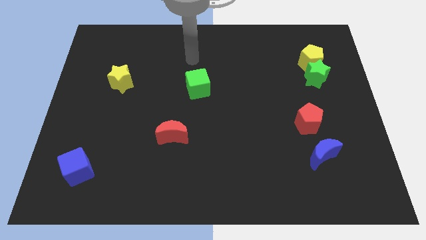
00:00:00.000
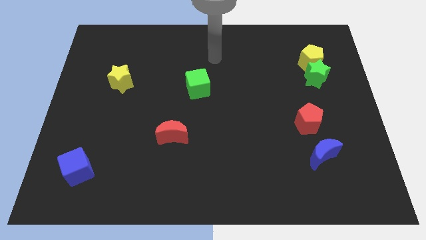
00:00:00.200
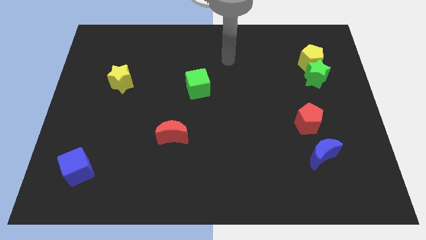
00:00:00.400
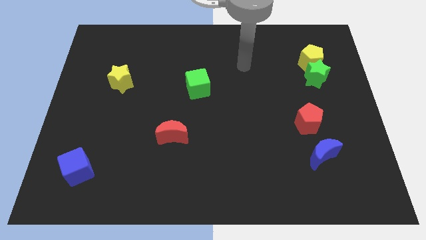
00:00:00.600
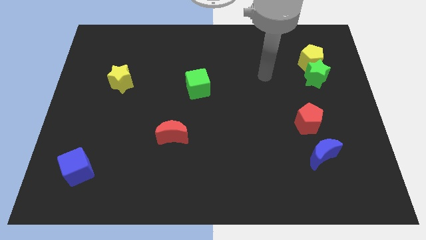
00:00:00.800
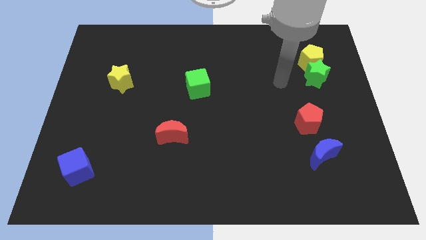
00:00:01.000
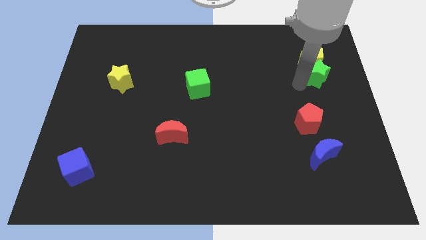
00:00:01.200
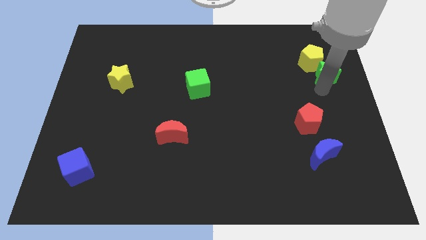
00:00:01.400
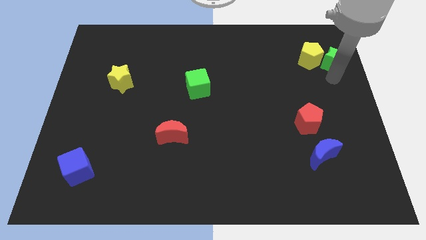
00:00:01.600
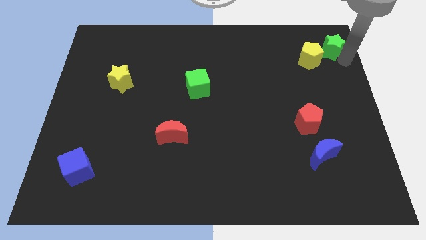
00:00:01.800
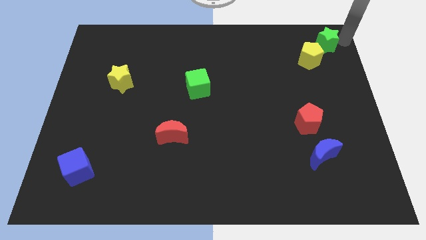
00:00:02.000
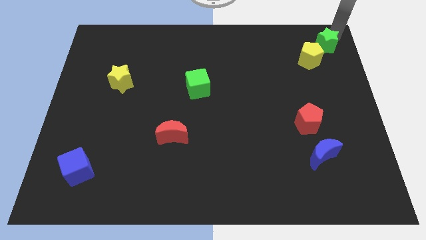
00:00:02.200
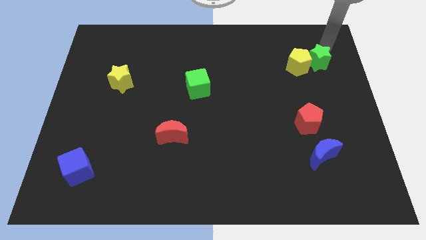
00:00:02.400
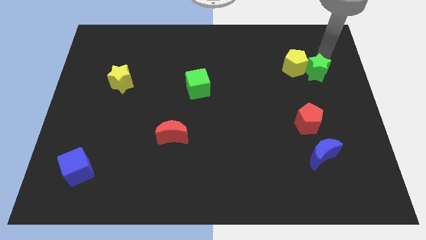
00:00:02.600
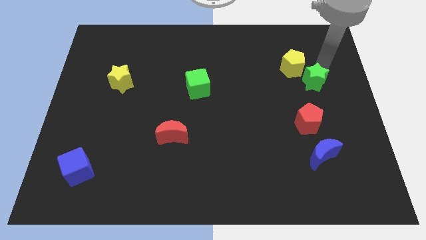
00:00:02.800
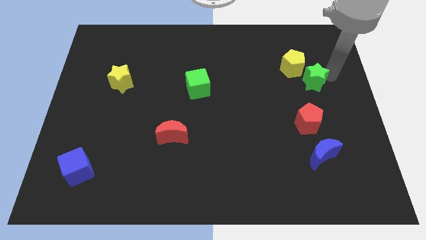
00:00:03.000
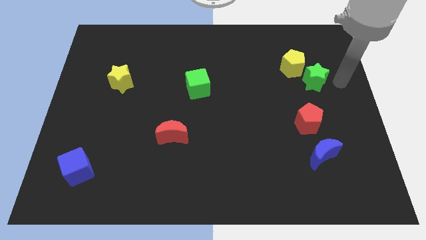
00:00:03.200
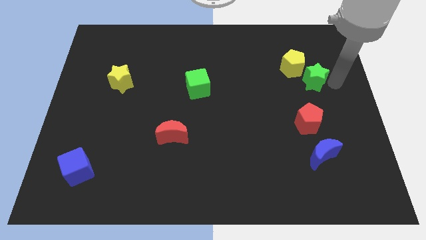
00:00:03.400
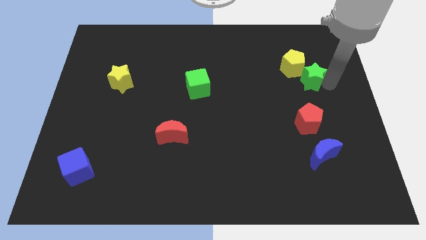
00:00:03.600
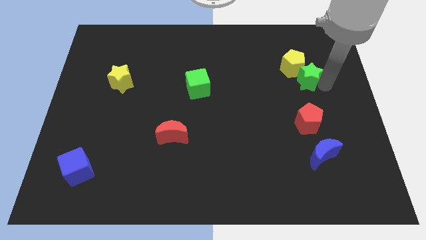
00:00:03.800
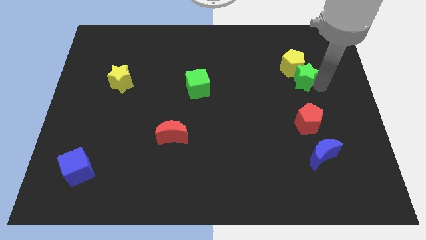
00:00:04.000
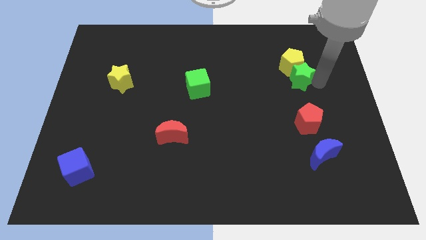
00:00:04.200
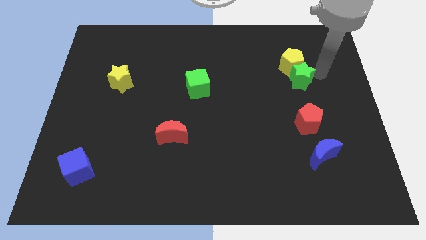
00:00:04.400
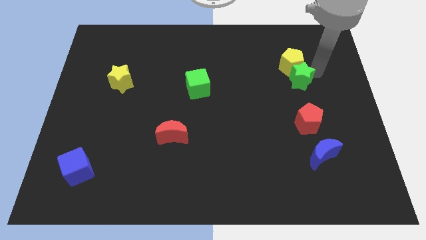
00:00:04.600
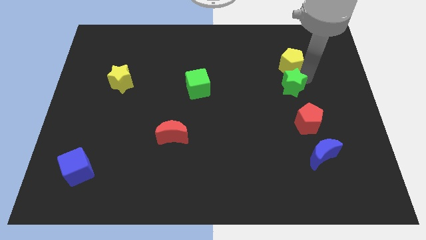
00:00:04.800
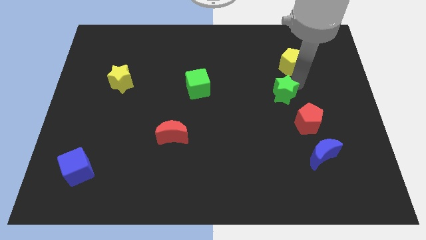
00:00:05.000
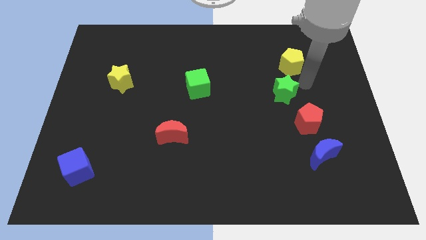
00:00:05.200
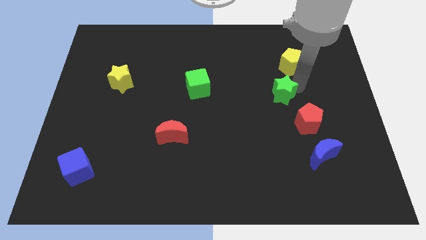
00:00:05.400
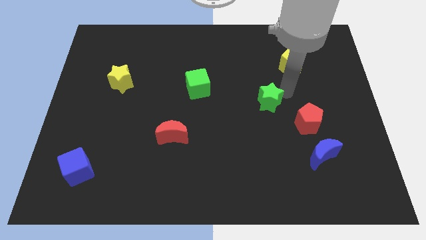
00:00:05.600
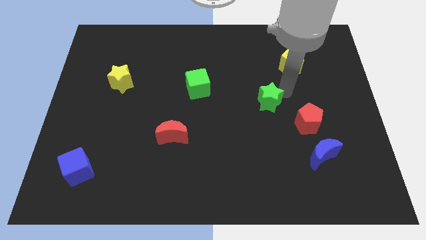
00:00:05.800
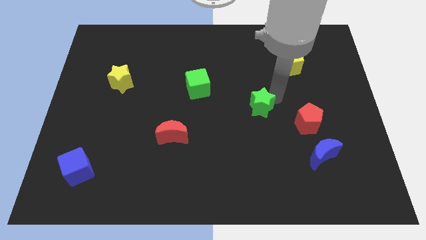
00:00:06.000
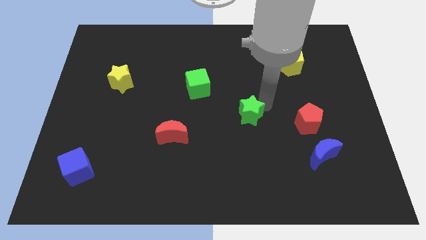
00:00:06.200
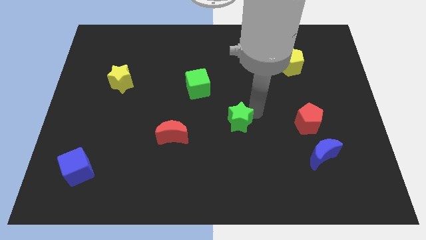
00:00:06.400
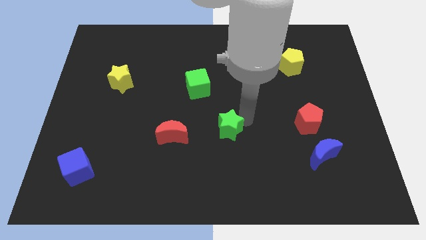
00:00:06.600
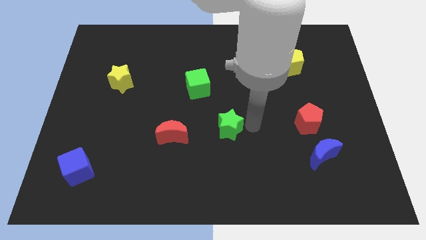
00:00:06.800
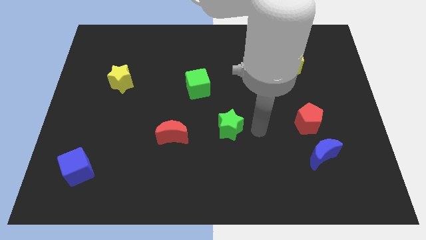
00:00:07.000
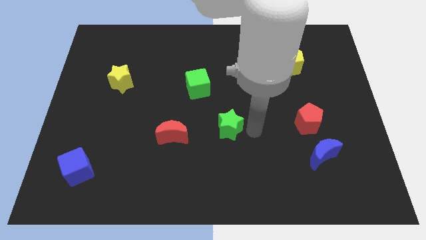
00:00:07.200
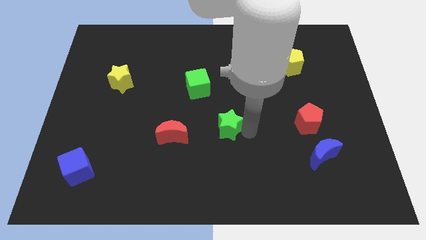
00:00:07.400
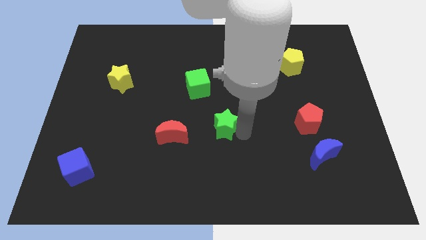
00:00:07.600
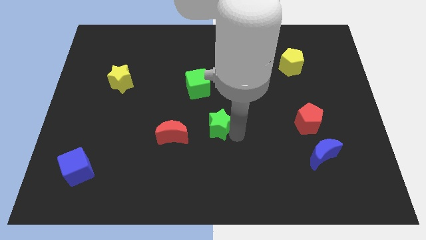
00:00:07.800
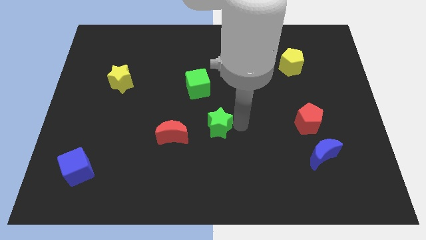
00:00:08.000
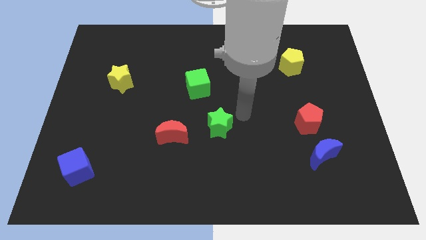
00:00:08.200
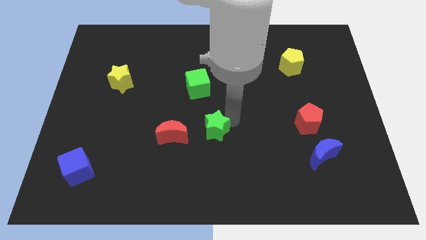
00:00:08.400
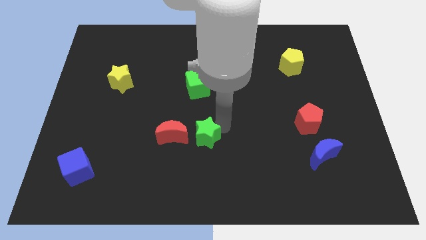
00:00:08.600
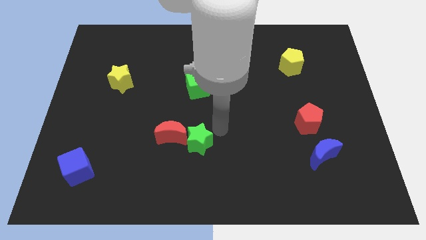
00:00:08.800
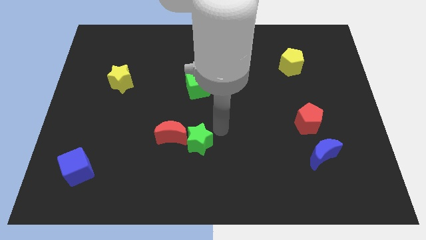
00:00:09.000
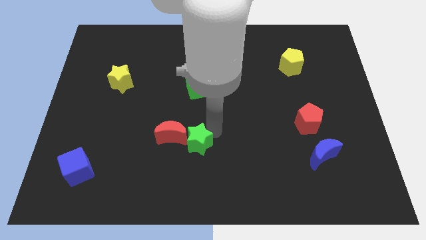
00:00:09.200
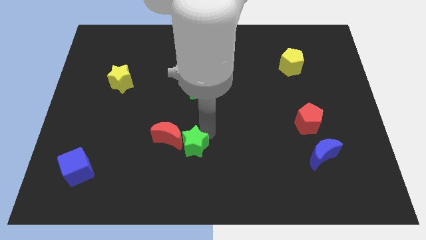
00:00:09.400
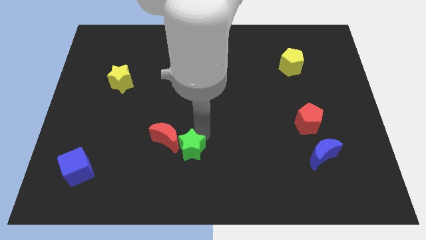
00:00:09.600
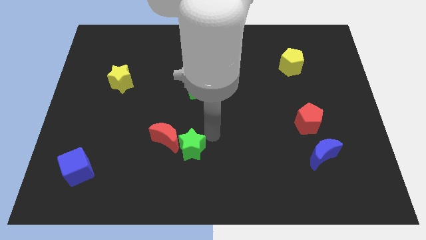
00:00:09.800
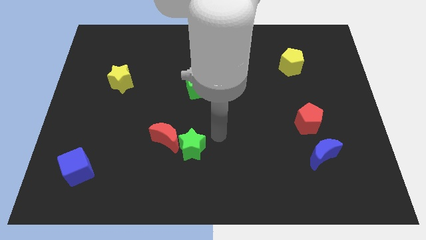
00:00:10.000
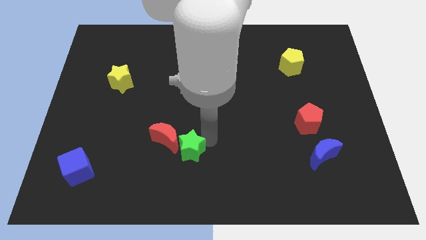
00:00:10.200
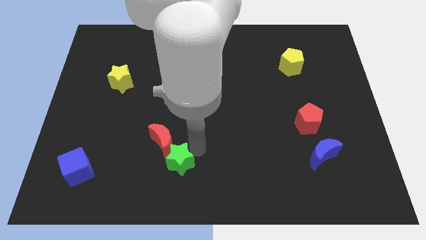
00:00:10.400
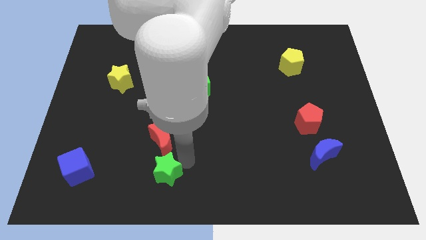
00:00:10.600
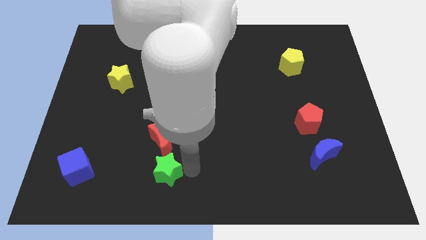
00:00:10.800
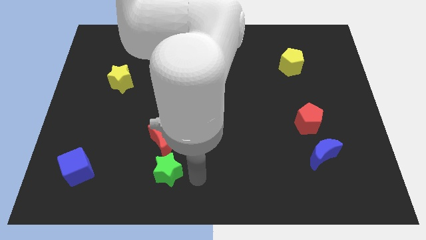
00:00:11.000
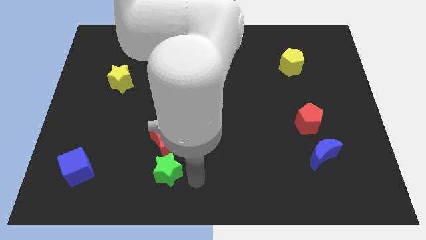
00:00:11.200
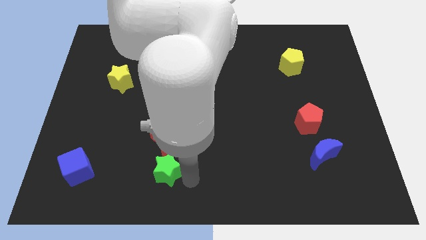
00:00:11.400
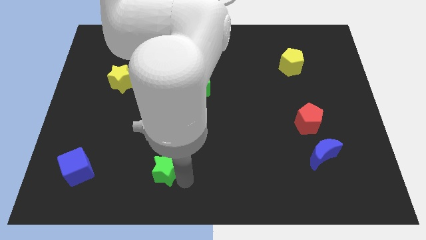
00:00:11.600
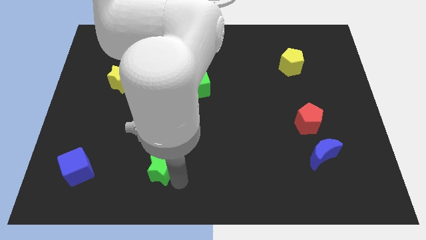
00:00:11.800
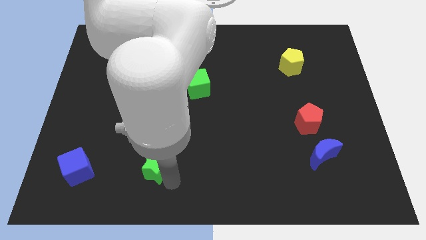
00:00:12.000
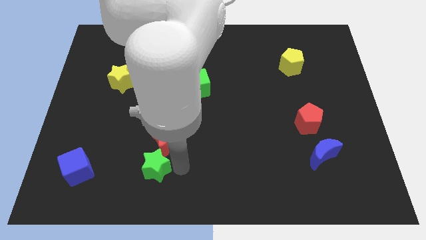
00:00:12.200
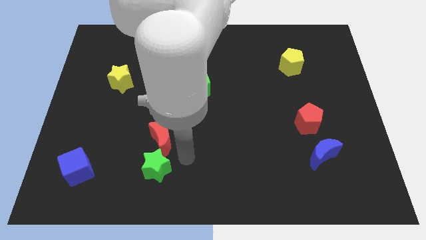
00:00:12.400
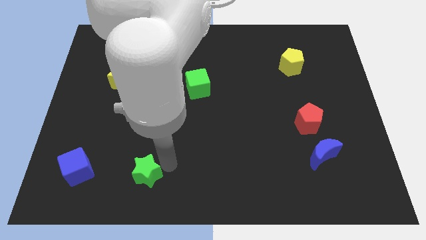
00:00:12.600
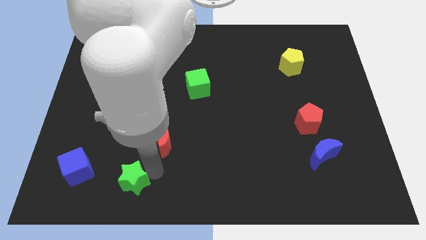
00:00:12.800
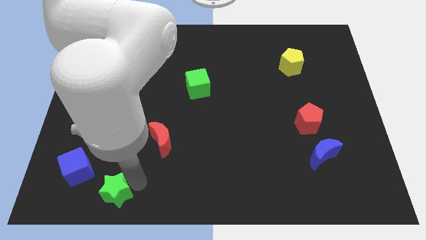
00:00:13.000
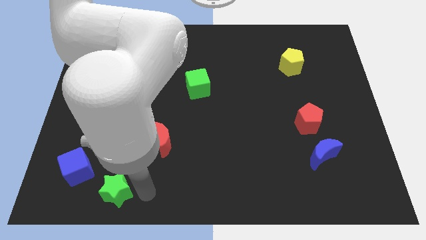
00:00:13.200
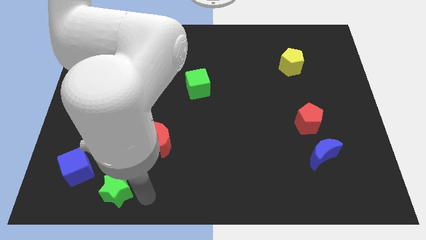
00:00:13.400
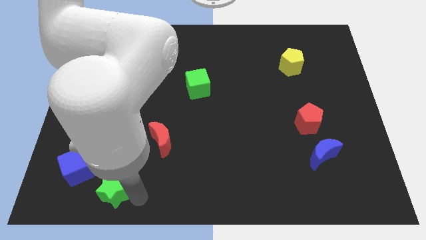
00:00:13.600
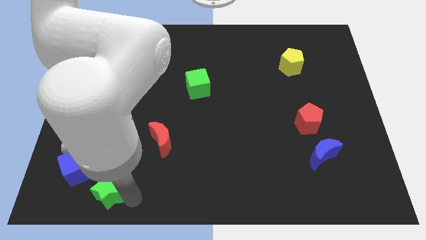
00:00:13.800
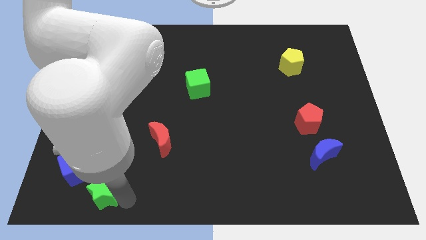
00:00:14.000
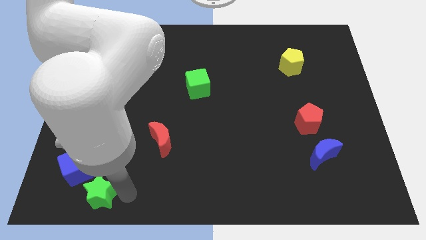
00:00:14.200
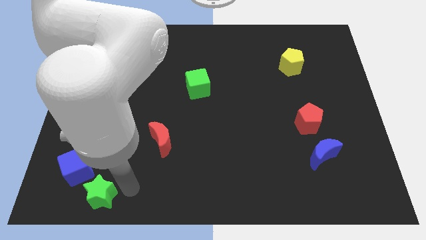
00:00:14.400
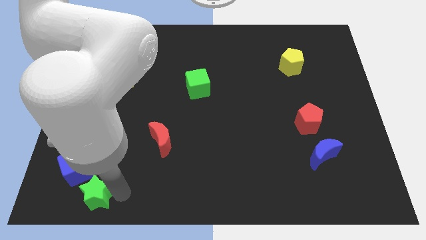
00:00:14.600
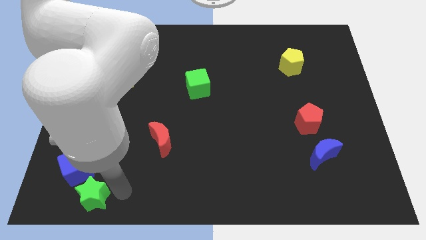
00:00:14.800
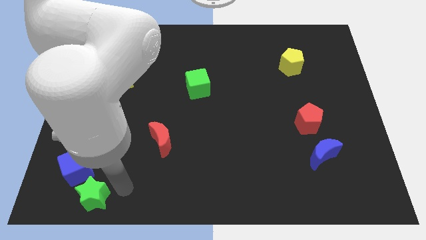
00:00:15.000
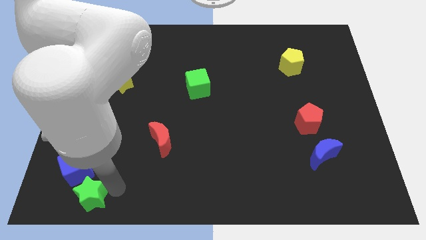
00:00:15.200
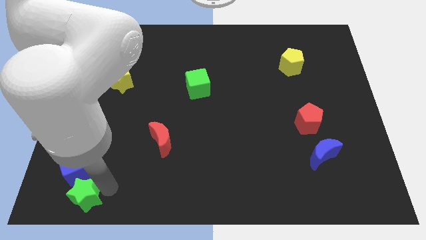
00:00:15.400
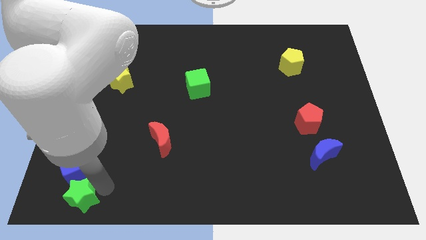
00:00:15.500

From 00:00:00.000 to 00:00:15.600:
put the green star to the bottom left
